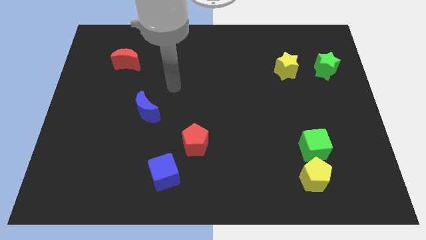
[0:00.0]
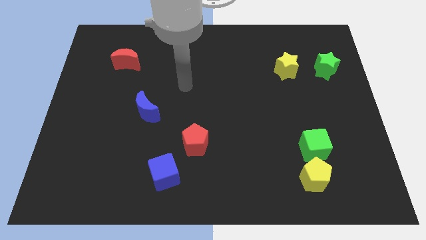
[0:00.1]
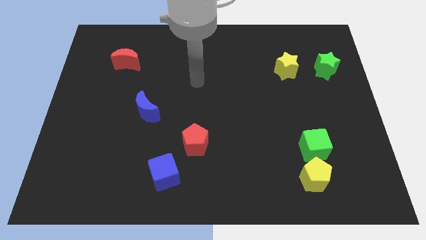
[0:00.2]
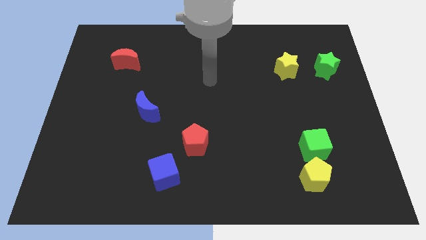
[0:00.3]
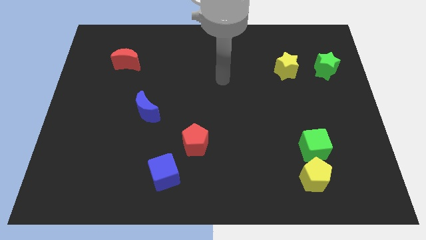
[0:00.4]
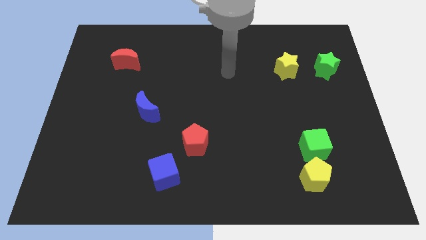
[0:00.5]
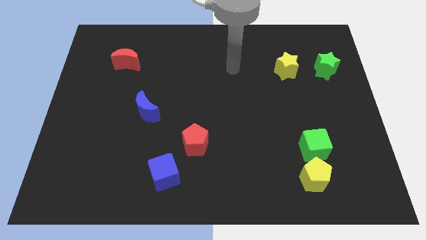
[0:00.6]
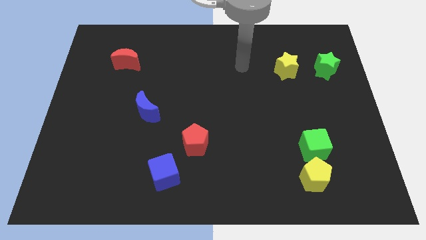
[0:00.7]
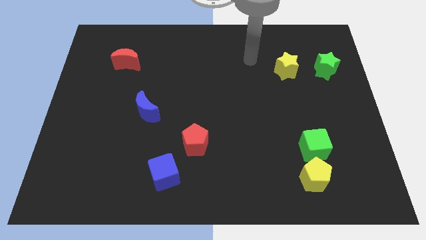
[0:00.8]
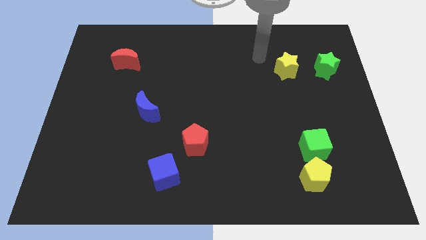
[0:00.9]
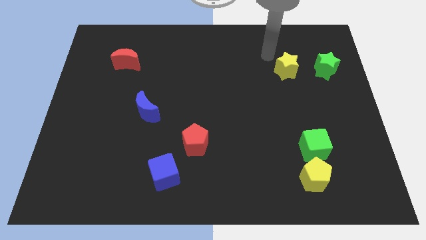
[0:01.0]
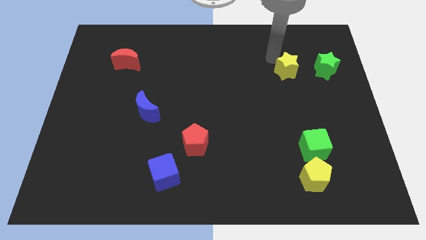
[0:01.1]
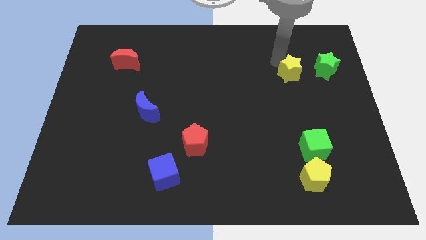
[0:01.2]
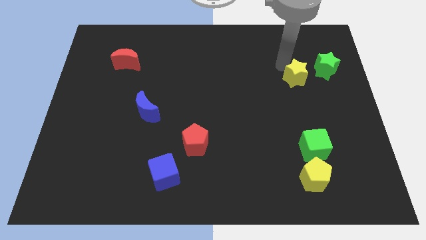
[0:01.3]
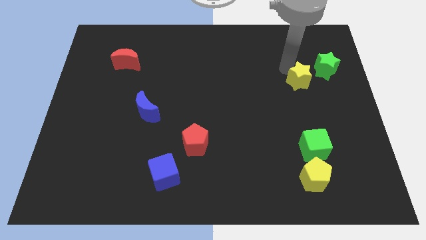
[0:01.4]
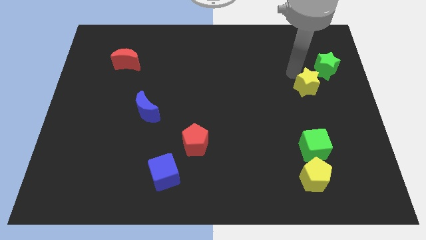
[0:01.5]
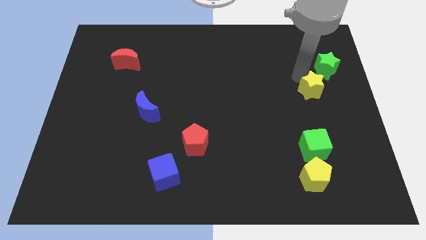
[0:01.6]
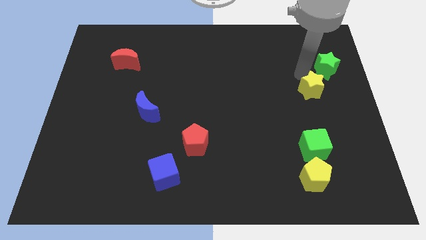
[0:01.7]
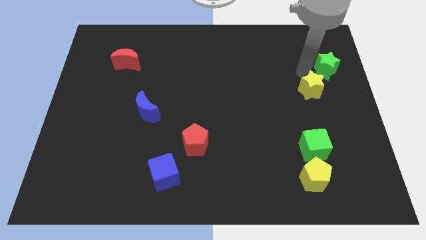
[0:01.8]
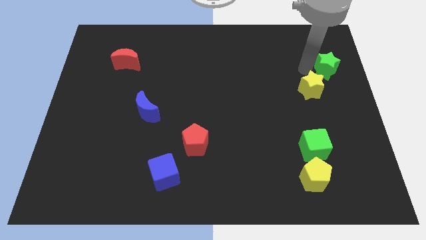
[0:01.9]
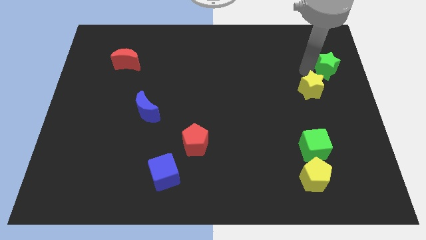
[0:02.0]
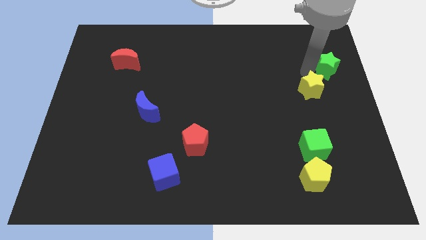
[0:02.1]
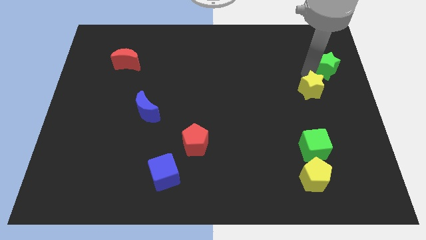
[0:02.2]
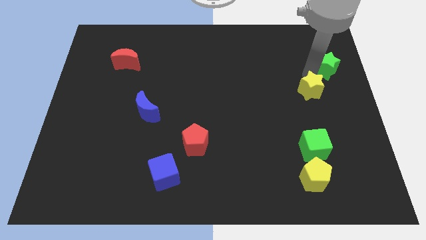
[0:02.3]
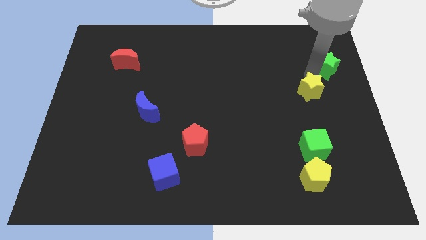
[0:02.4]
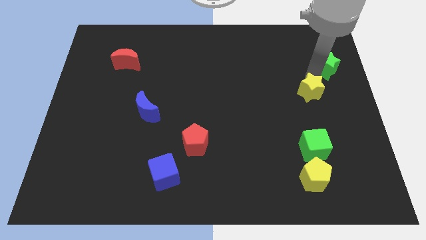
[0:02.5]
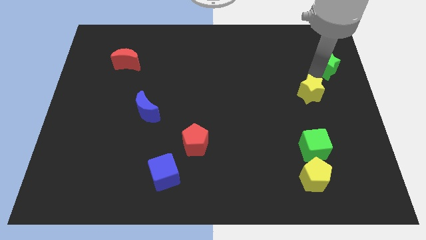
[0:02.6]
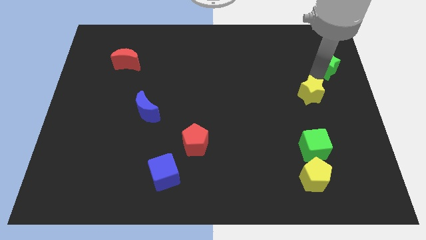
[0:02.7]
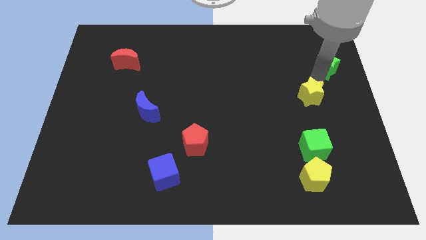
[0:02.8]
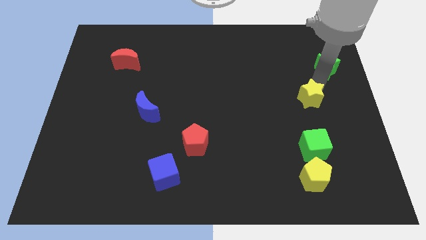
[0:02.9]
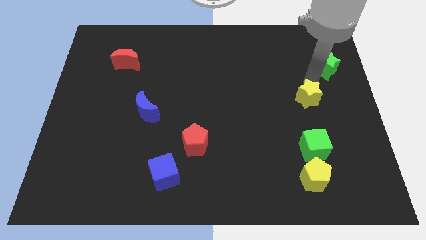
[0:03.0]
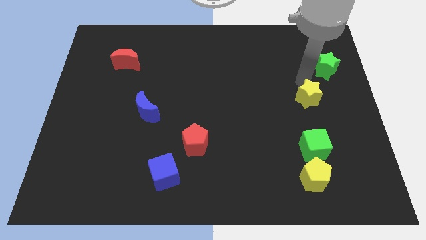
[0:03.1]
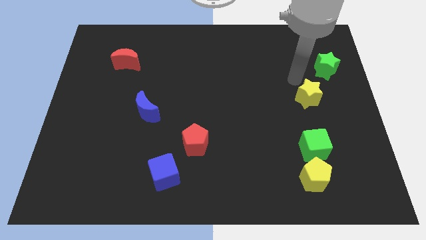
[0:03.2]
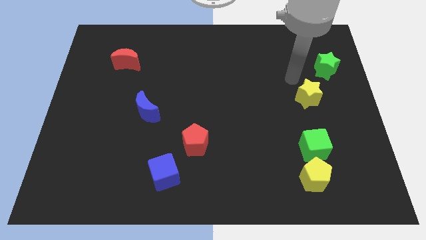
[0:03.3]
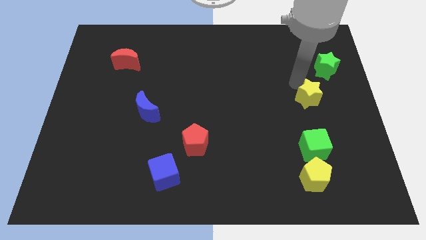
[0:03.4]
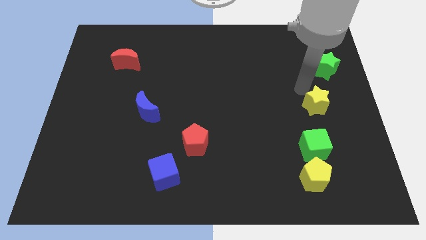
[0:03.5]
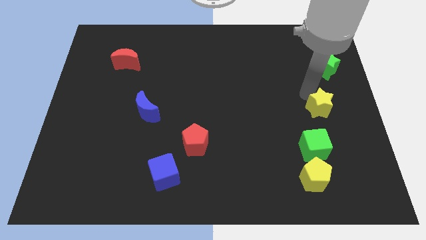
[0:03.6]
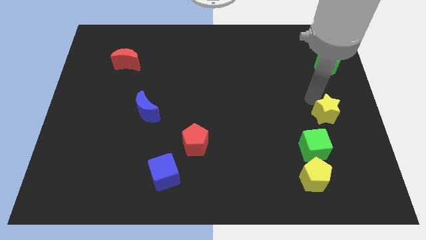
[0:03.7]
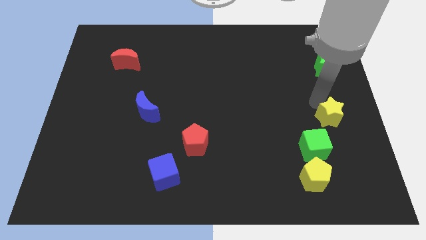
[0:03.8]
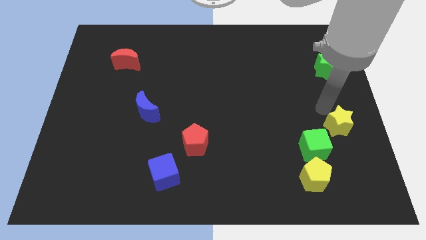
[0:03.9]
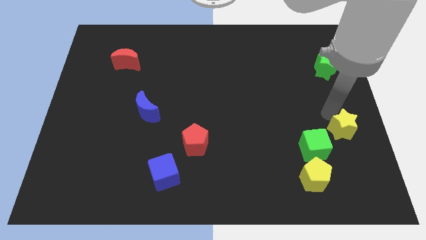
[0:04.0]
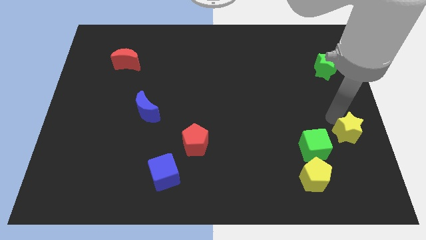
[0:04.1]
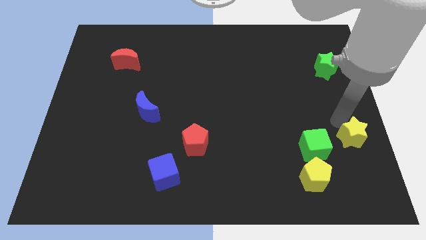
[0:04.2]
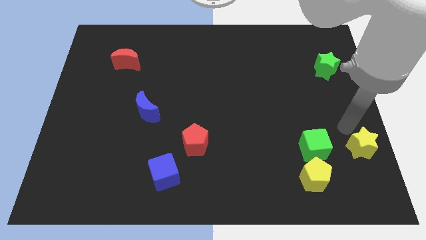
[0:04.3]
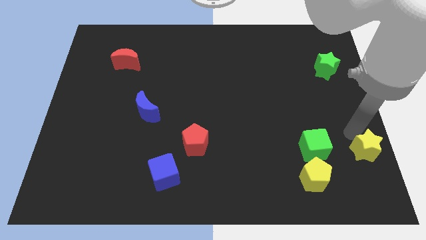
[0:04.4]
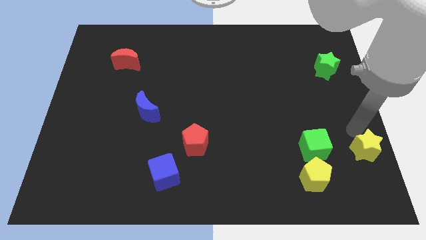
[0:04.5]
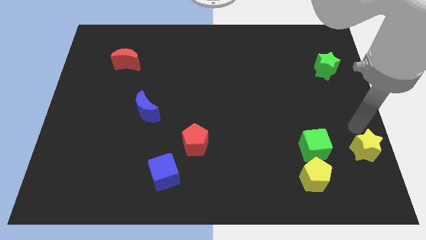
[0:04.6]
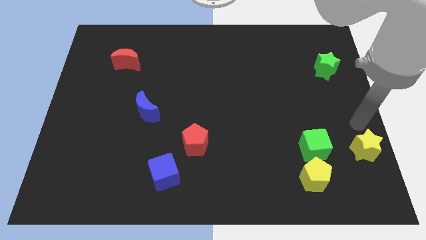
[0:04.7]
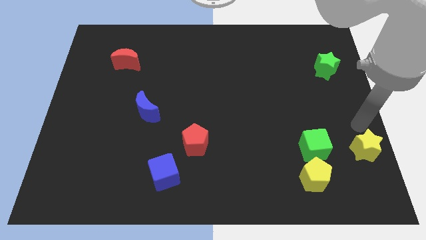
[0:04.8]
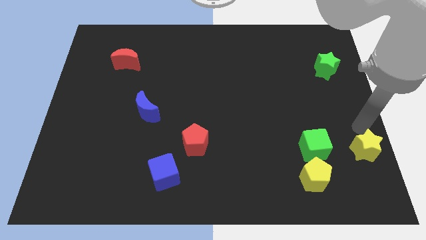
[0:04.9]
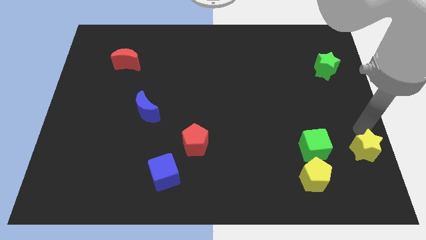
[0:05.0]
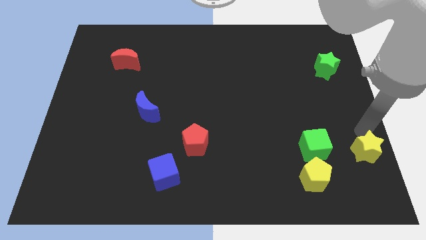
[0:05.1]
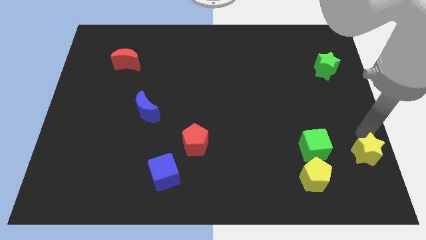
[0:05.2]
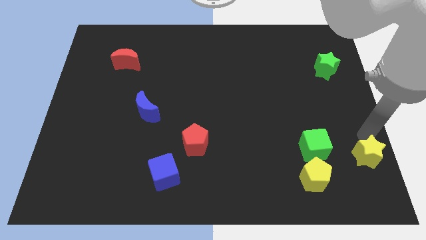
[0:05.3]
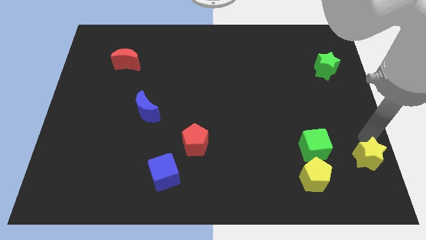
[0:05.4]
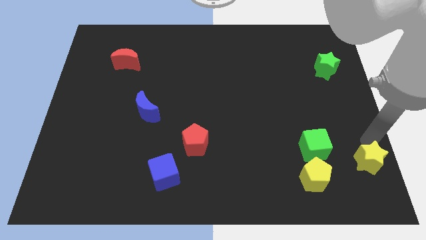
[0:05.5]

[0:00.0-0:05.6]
put the yellow star to the lower right corner
